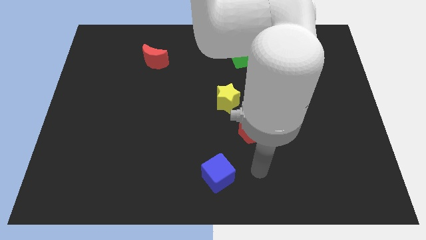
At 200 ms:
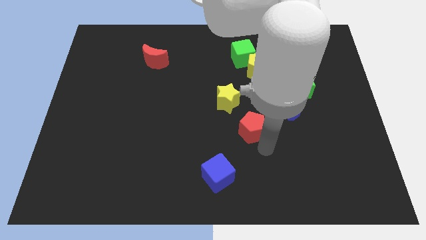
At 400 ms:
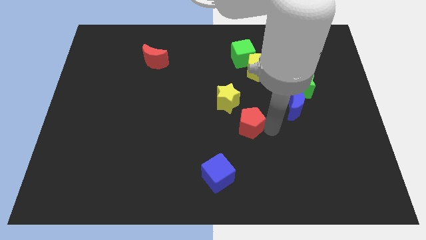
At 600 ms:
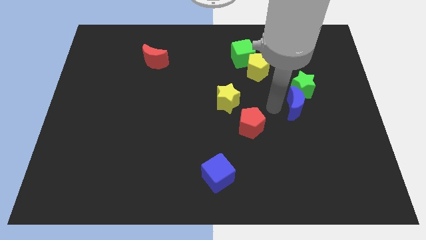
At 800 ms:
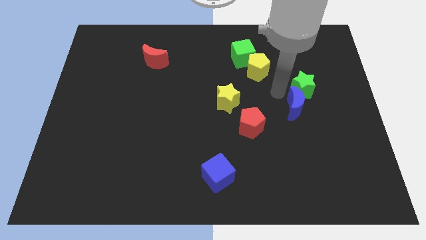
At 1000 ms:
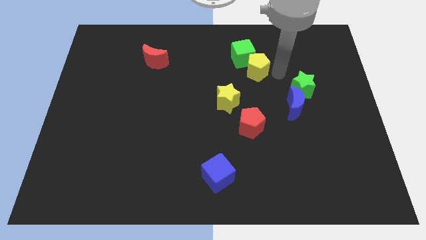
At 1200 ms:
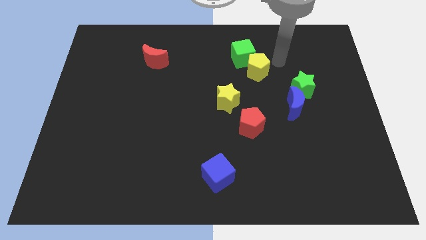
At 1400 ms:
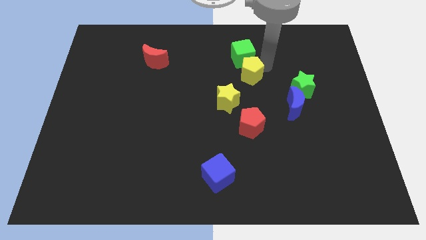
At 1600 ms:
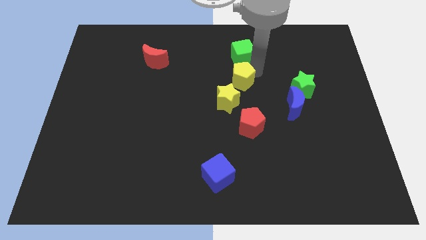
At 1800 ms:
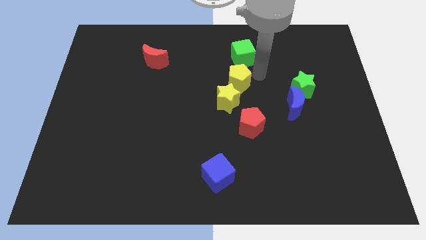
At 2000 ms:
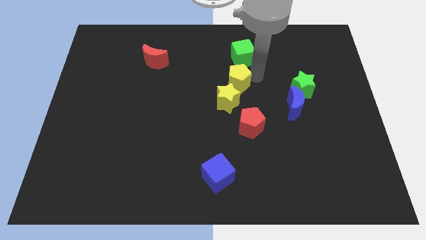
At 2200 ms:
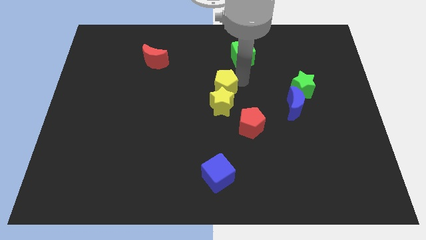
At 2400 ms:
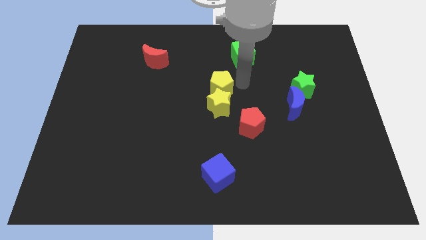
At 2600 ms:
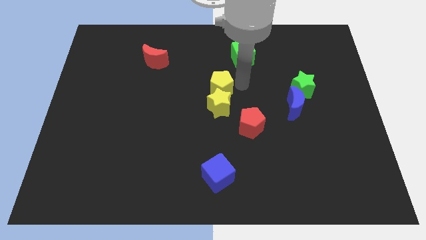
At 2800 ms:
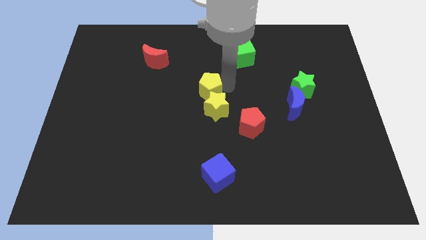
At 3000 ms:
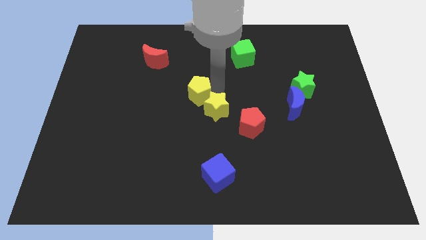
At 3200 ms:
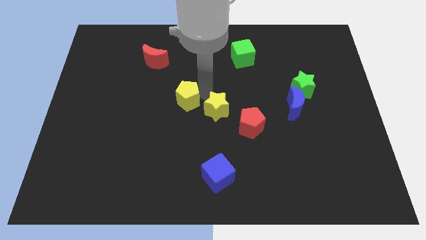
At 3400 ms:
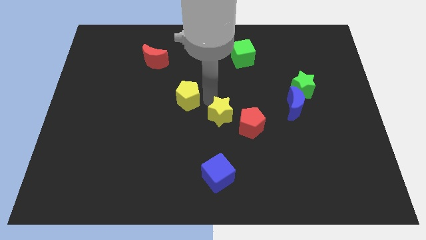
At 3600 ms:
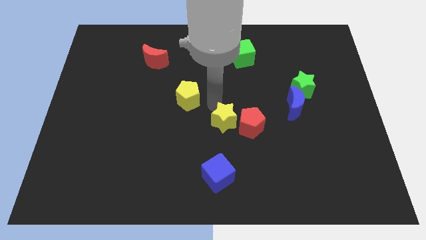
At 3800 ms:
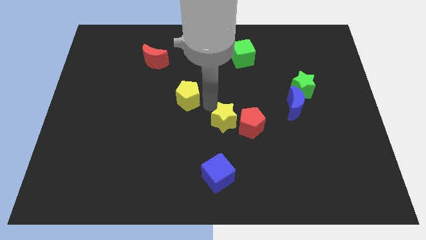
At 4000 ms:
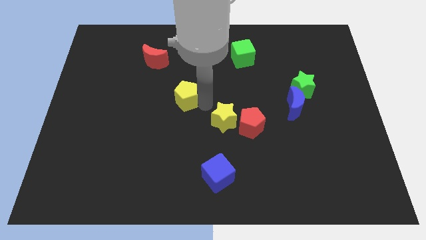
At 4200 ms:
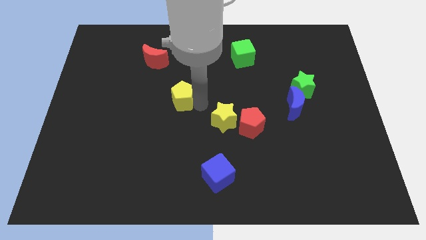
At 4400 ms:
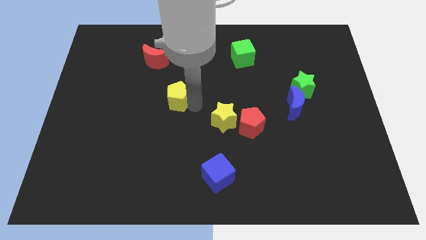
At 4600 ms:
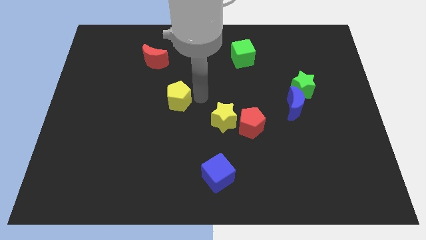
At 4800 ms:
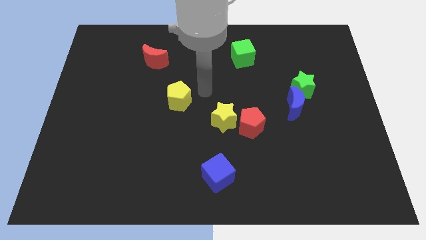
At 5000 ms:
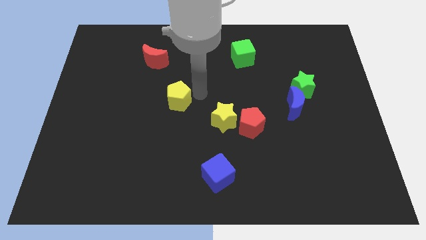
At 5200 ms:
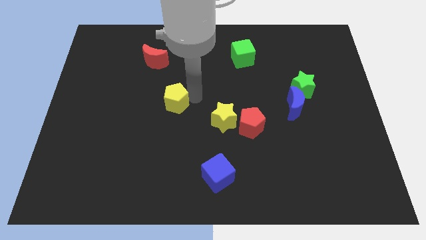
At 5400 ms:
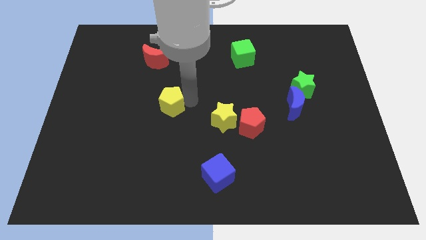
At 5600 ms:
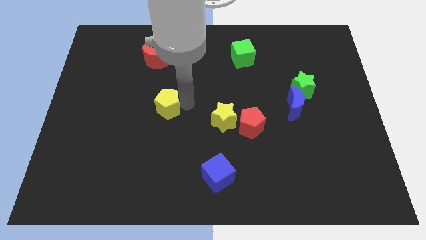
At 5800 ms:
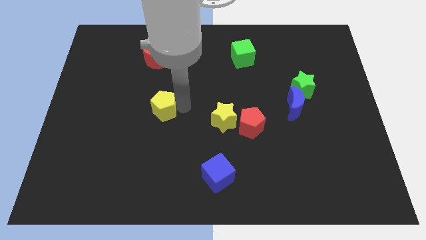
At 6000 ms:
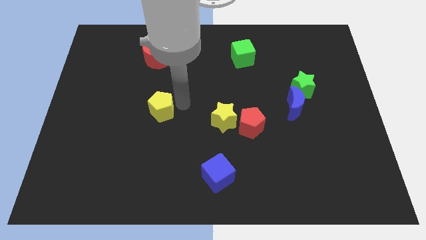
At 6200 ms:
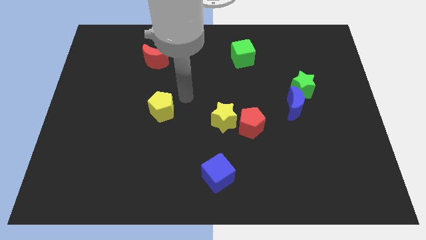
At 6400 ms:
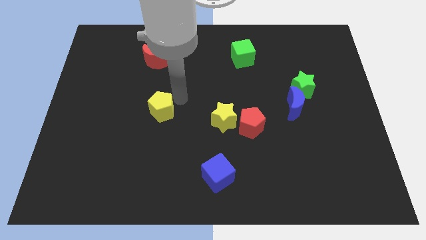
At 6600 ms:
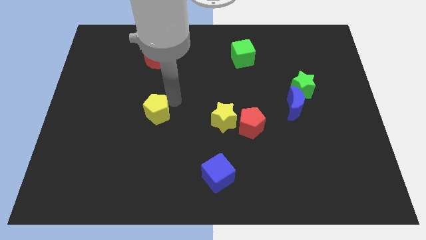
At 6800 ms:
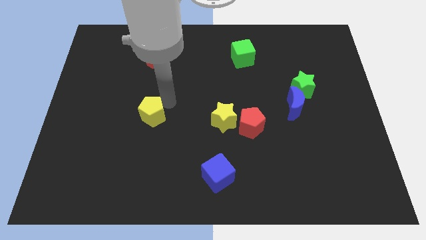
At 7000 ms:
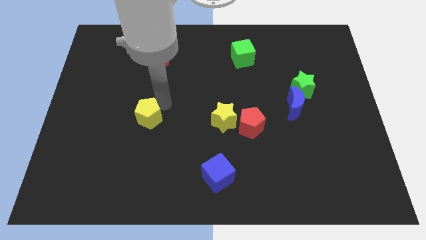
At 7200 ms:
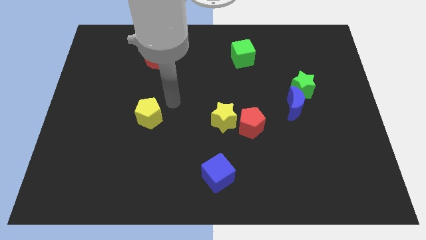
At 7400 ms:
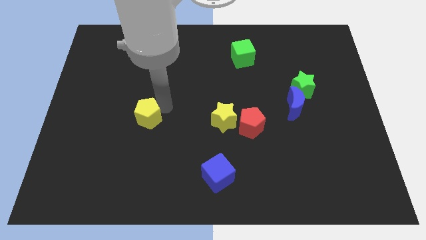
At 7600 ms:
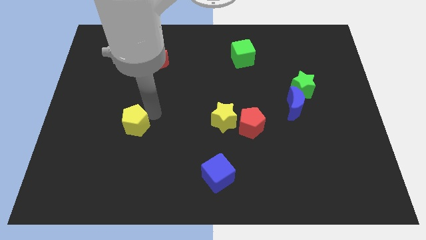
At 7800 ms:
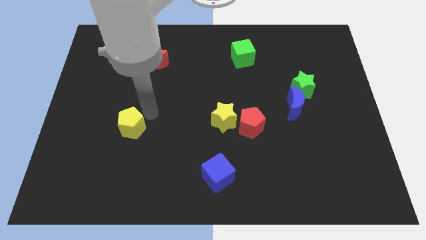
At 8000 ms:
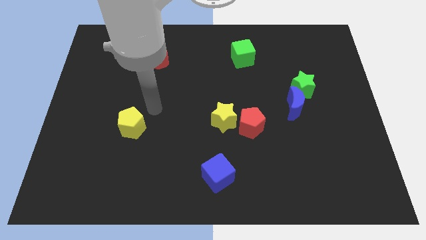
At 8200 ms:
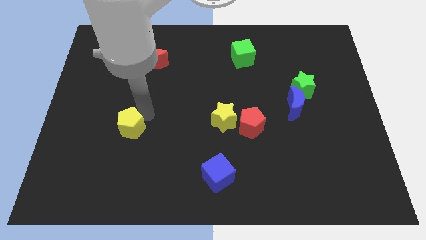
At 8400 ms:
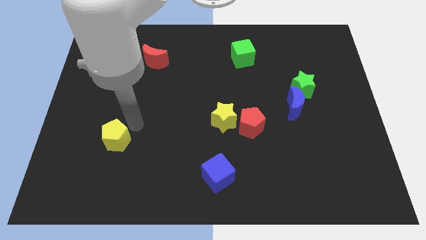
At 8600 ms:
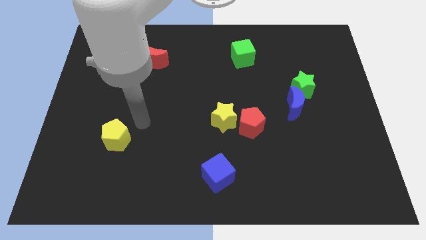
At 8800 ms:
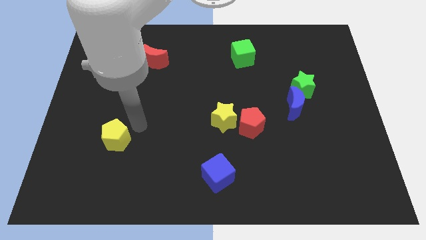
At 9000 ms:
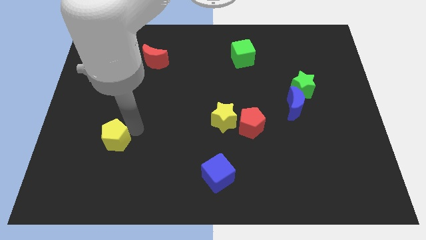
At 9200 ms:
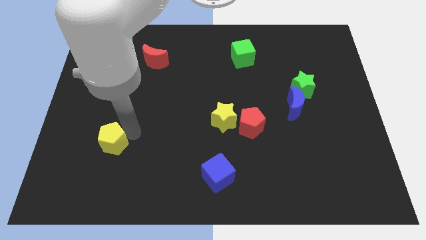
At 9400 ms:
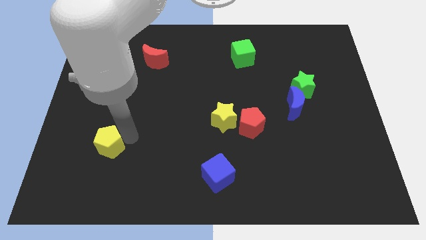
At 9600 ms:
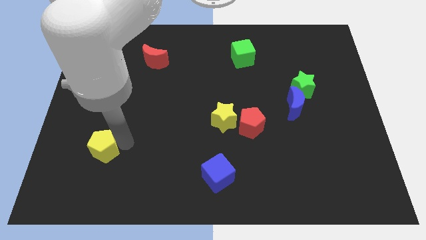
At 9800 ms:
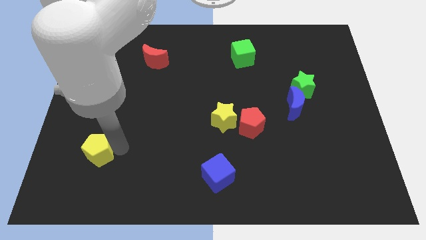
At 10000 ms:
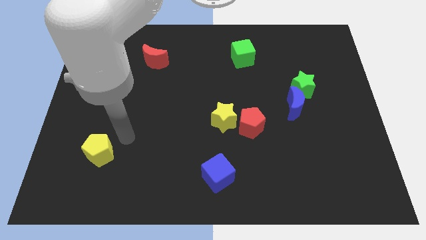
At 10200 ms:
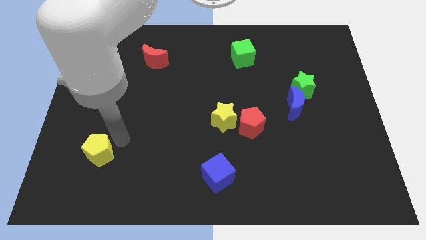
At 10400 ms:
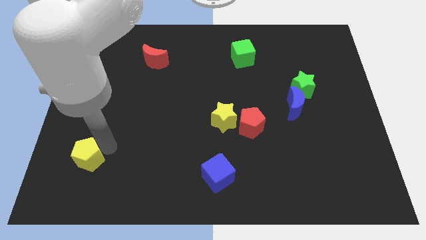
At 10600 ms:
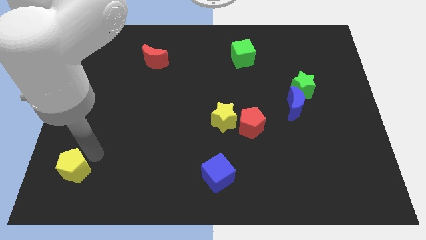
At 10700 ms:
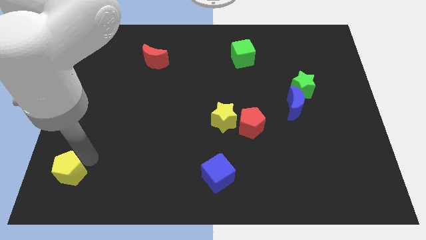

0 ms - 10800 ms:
push the yellow pentagon to the lower left corner

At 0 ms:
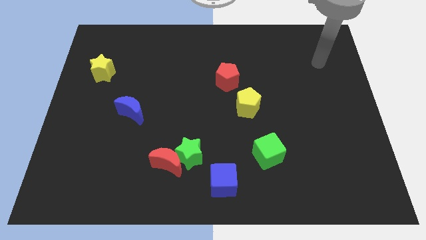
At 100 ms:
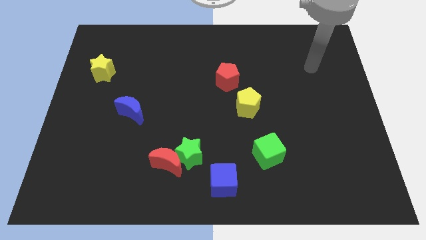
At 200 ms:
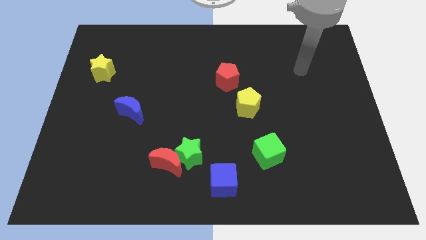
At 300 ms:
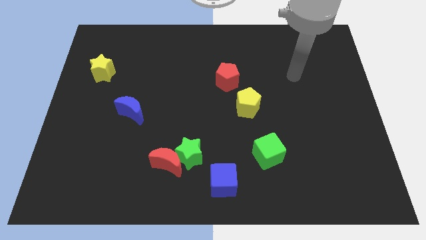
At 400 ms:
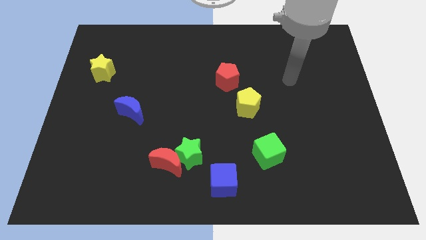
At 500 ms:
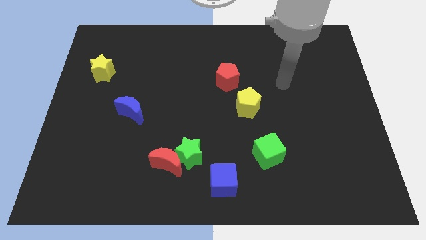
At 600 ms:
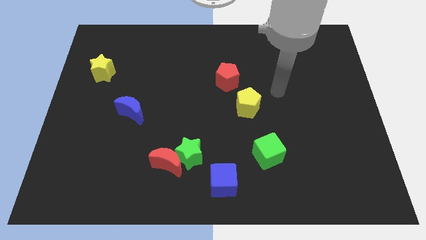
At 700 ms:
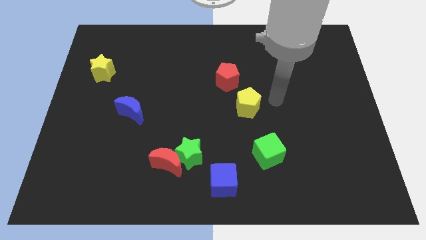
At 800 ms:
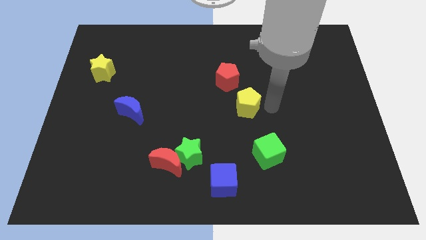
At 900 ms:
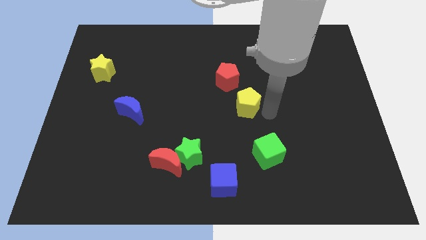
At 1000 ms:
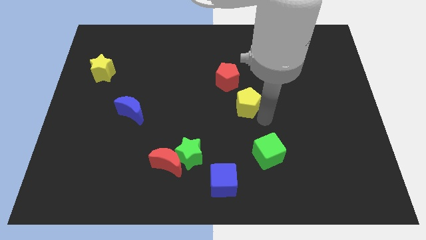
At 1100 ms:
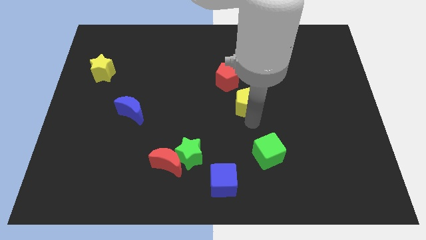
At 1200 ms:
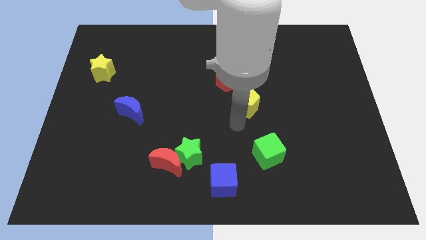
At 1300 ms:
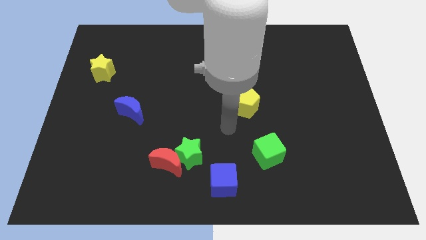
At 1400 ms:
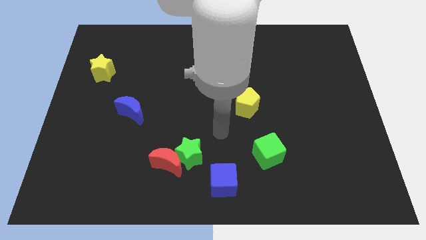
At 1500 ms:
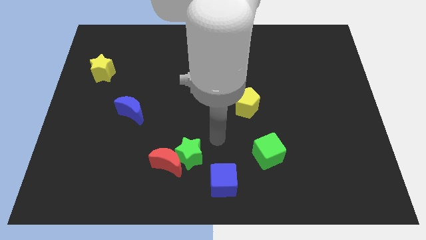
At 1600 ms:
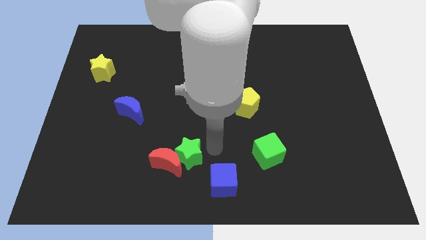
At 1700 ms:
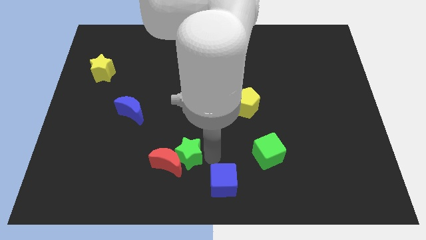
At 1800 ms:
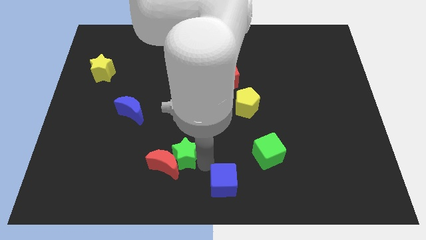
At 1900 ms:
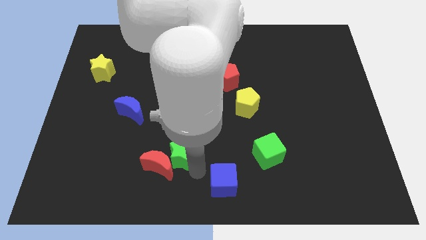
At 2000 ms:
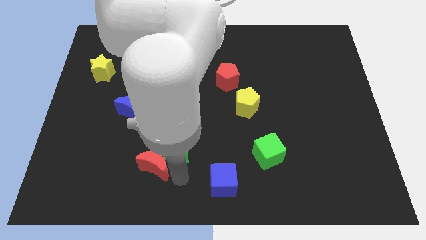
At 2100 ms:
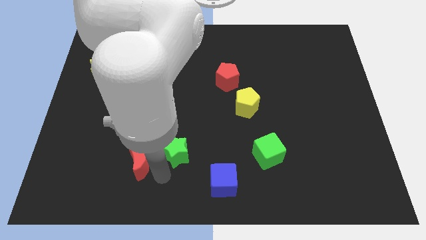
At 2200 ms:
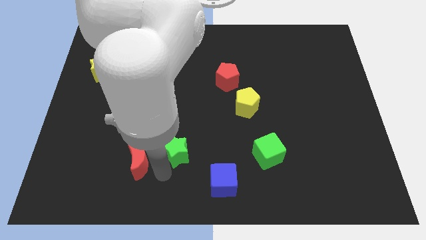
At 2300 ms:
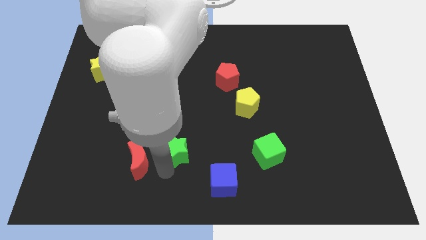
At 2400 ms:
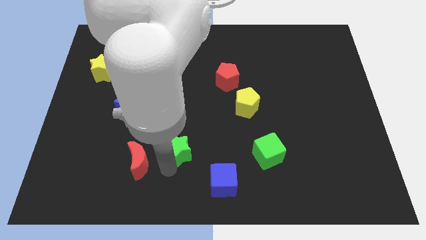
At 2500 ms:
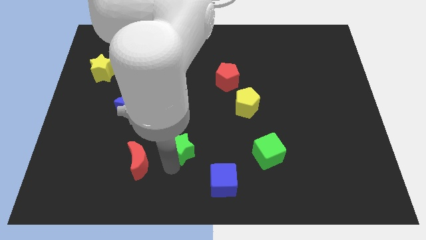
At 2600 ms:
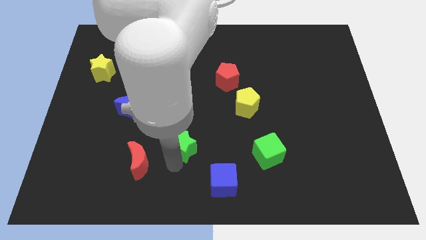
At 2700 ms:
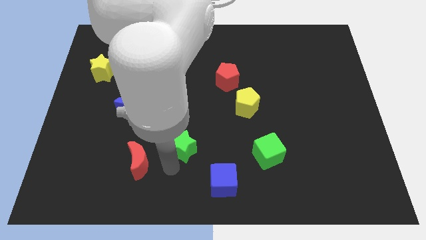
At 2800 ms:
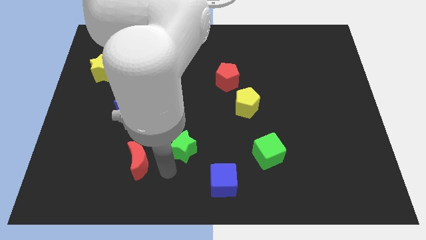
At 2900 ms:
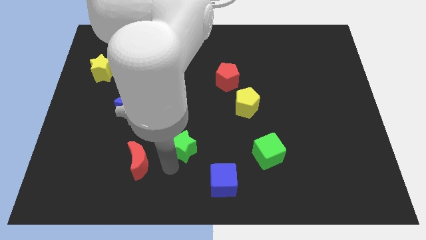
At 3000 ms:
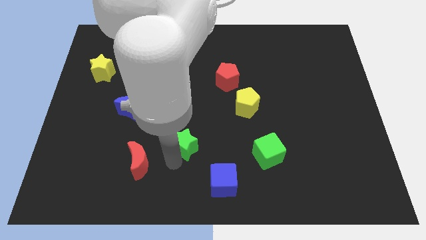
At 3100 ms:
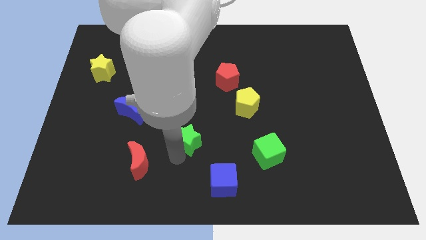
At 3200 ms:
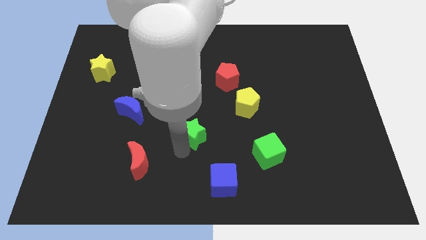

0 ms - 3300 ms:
put the green star to the center
